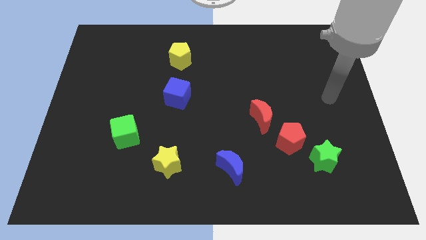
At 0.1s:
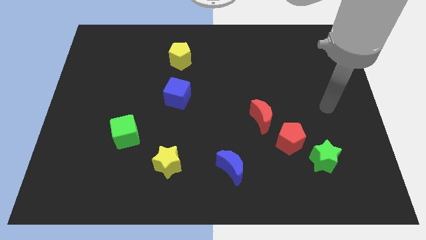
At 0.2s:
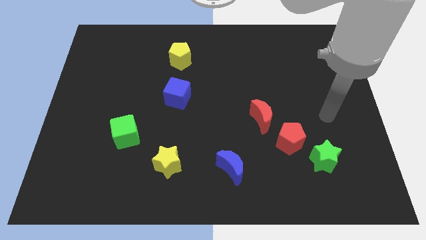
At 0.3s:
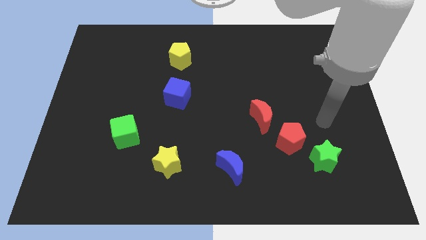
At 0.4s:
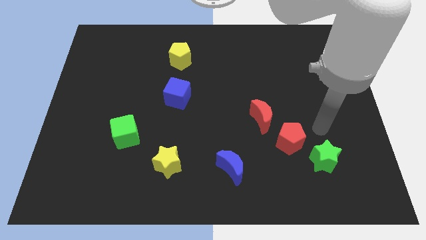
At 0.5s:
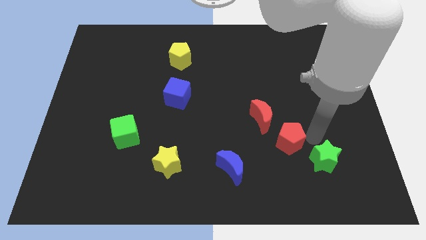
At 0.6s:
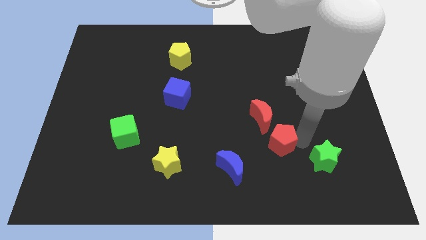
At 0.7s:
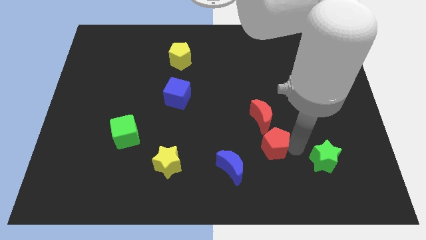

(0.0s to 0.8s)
separate the green star from the red pentagon

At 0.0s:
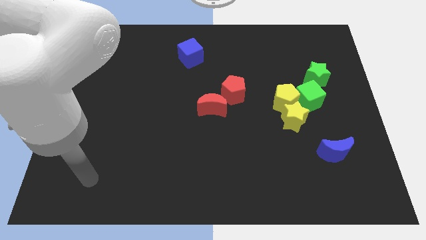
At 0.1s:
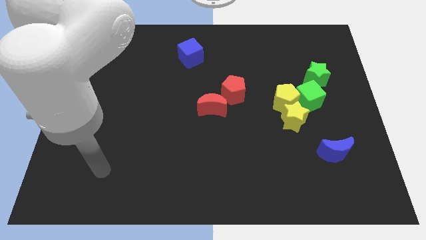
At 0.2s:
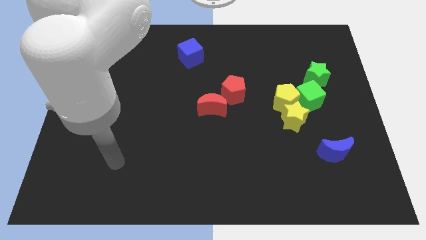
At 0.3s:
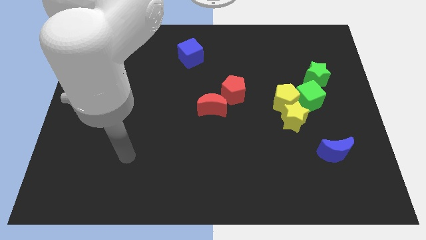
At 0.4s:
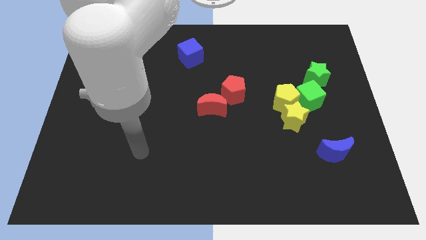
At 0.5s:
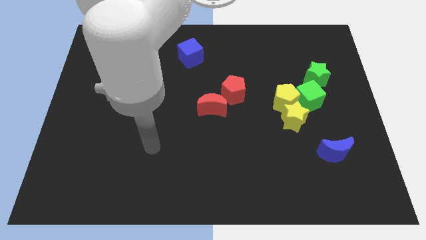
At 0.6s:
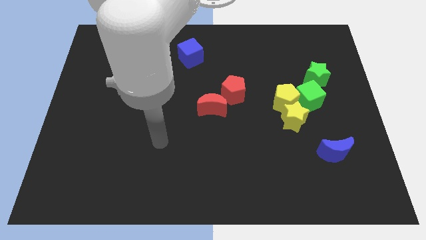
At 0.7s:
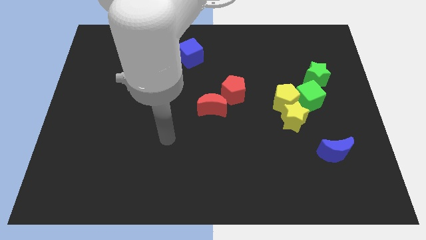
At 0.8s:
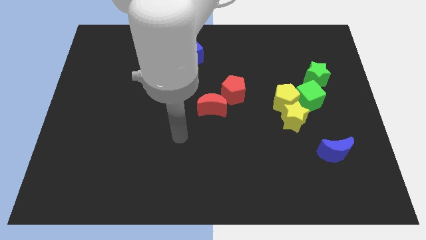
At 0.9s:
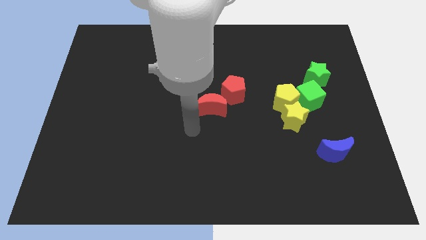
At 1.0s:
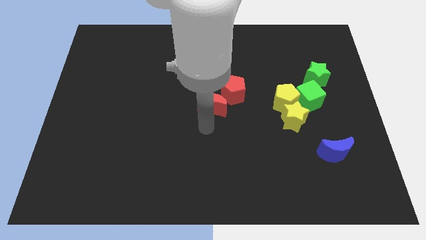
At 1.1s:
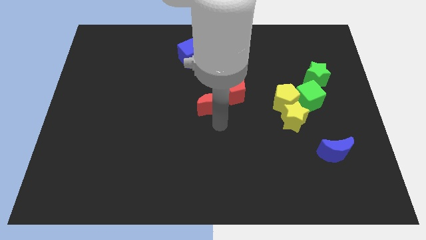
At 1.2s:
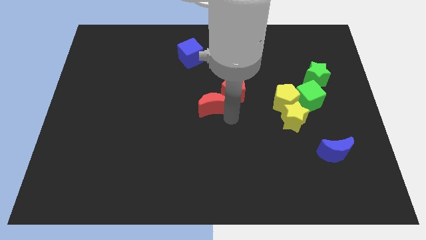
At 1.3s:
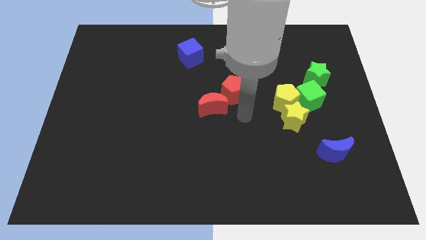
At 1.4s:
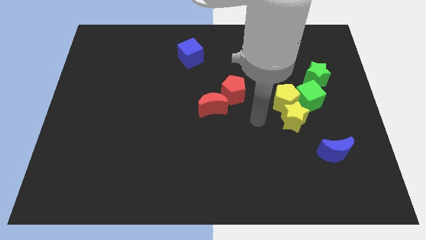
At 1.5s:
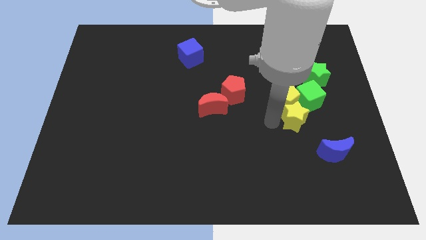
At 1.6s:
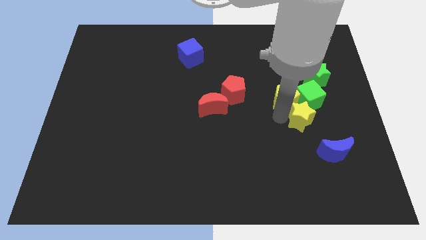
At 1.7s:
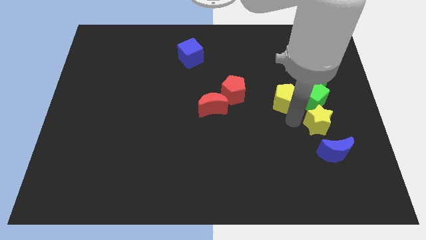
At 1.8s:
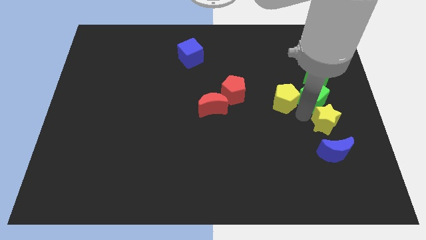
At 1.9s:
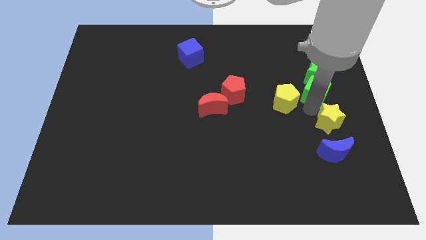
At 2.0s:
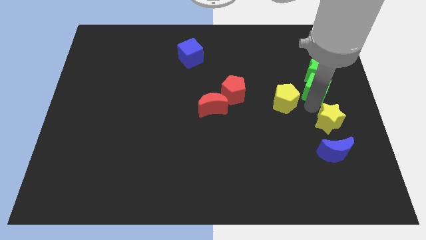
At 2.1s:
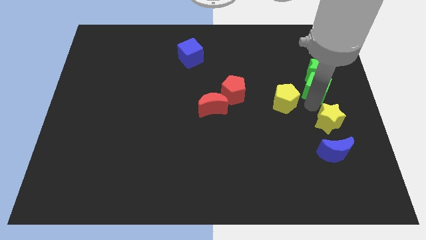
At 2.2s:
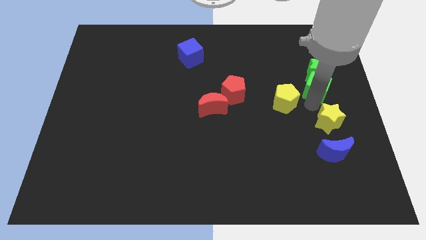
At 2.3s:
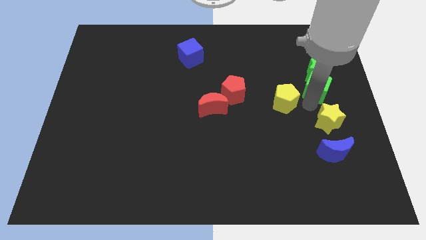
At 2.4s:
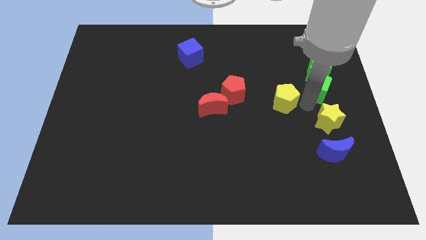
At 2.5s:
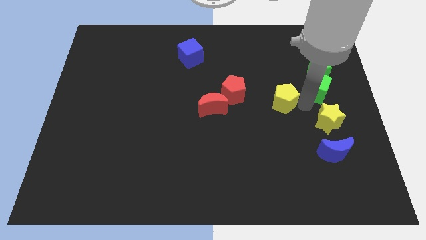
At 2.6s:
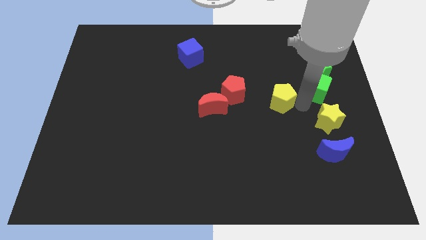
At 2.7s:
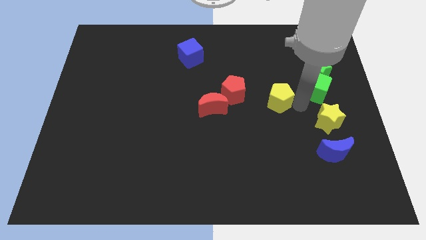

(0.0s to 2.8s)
move the yellow pentagon away from the yellow star and green cube

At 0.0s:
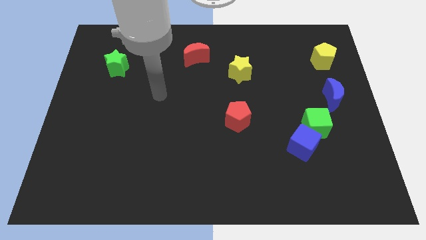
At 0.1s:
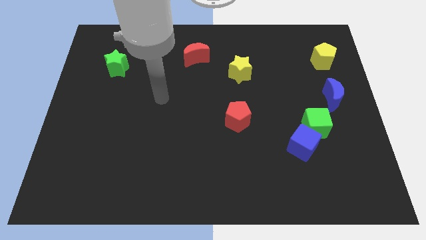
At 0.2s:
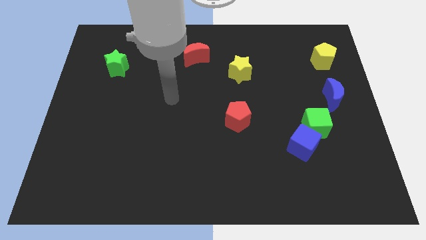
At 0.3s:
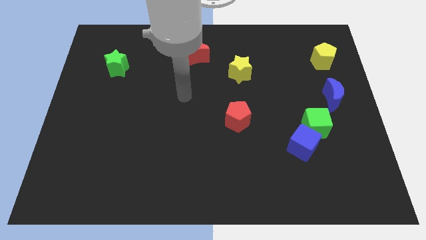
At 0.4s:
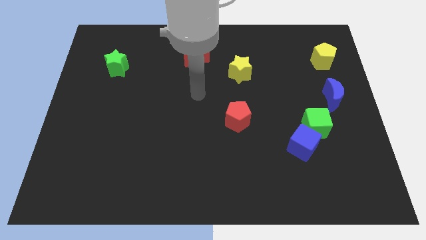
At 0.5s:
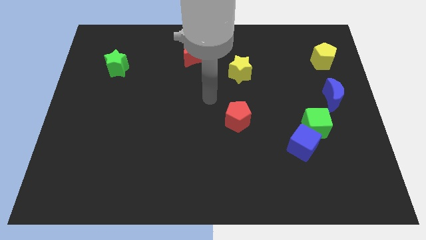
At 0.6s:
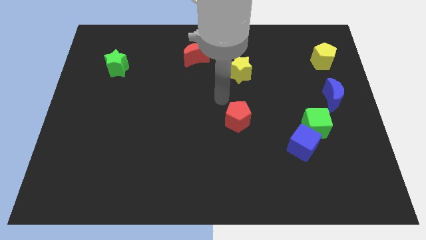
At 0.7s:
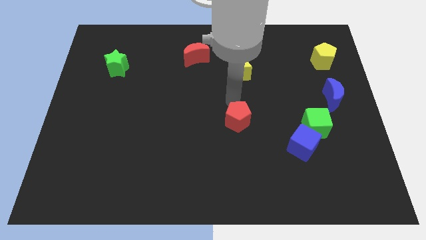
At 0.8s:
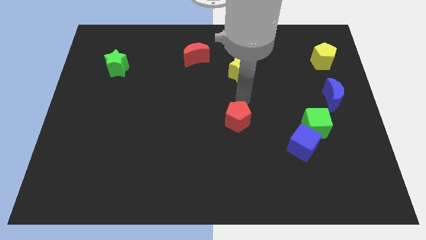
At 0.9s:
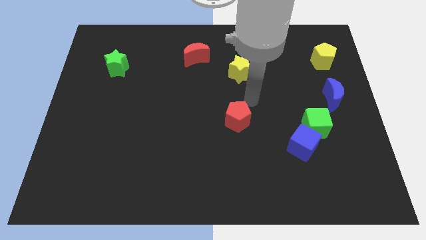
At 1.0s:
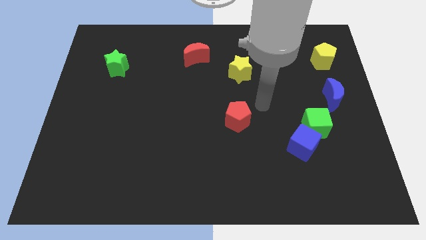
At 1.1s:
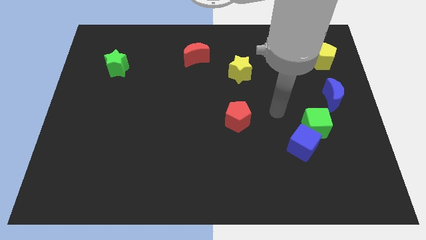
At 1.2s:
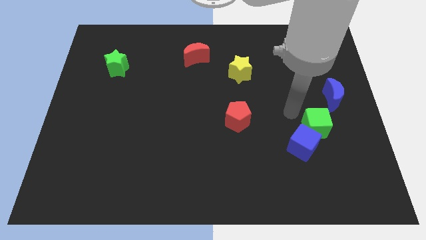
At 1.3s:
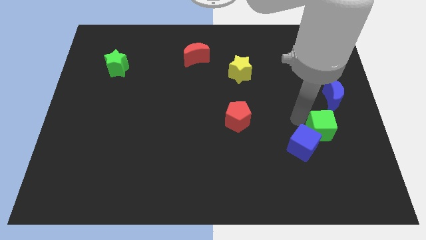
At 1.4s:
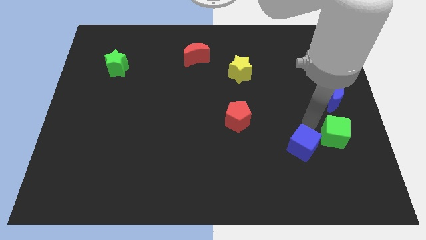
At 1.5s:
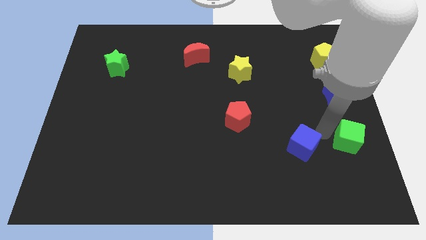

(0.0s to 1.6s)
move the blue cube away from the green cube

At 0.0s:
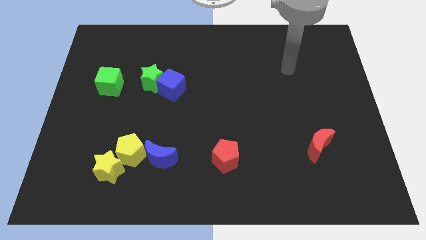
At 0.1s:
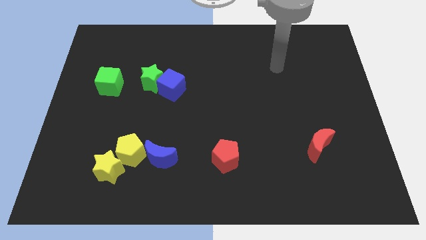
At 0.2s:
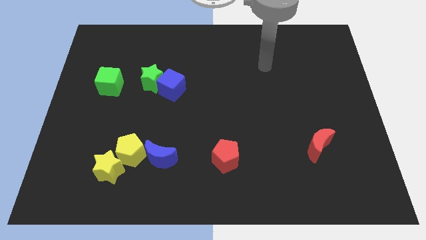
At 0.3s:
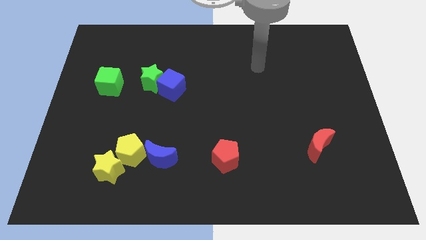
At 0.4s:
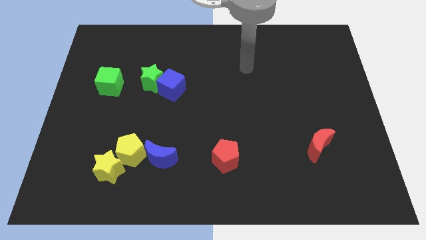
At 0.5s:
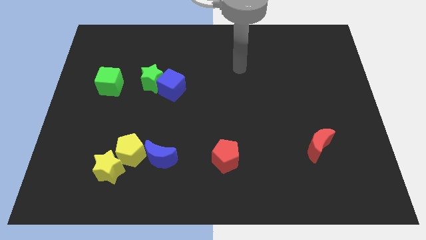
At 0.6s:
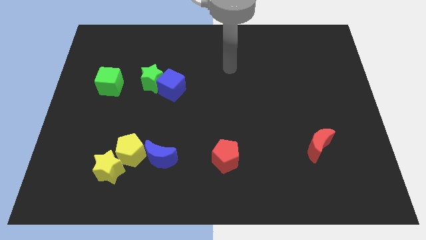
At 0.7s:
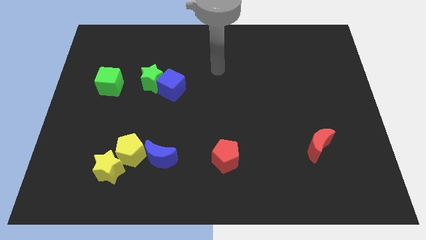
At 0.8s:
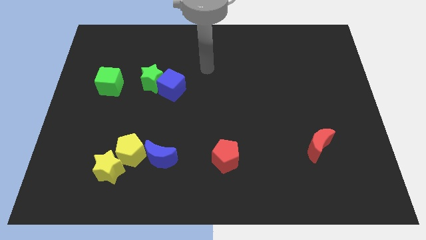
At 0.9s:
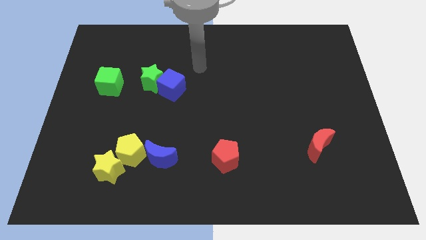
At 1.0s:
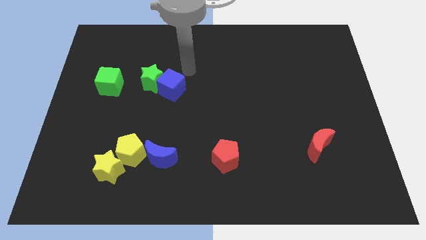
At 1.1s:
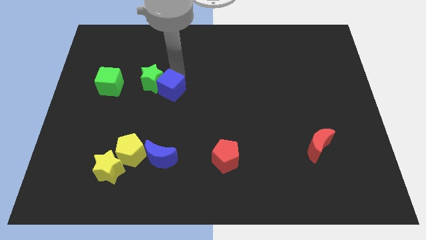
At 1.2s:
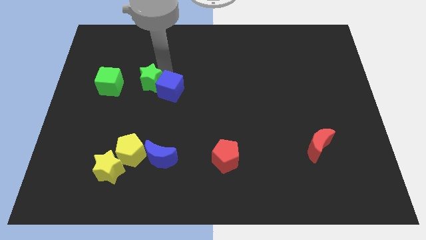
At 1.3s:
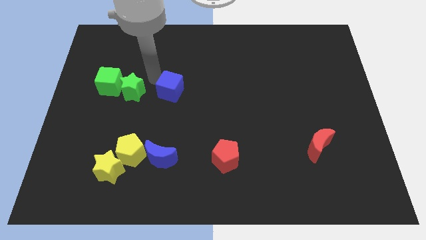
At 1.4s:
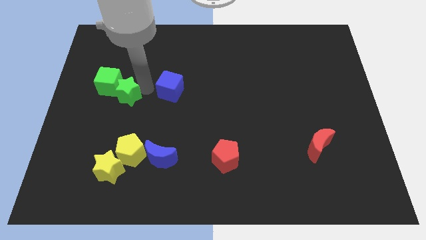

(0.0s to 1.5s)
move the blue cube away from the green star

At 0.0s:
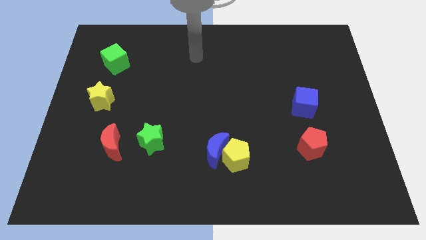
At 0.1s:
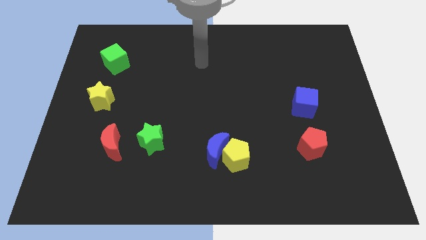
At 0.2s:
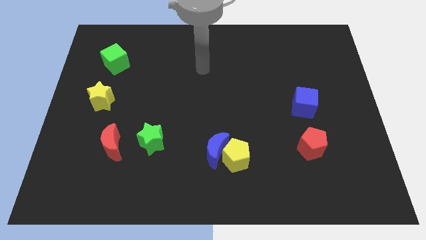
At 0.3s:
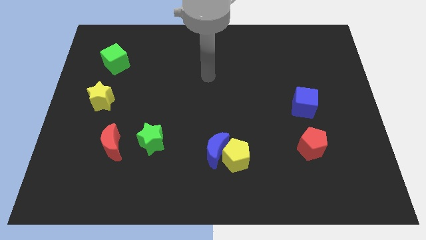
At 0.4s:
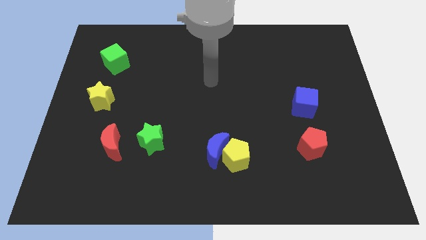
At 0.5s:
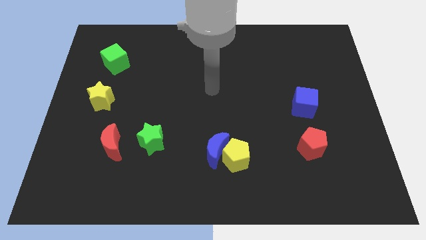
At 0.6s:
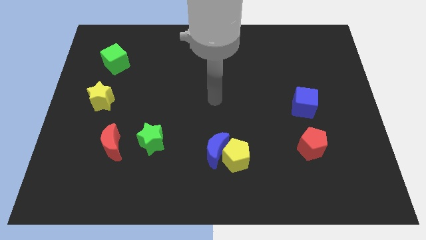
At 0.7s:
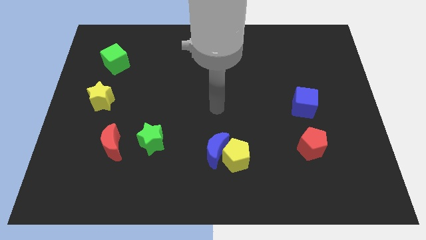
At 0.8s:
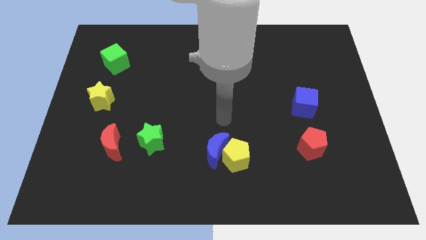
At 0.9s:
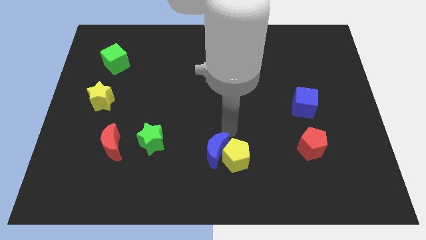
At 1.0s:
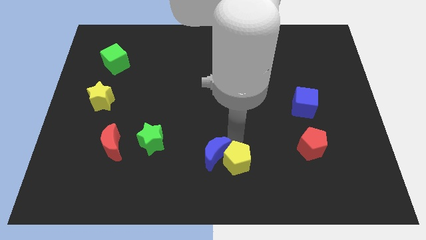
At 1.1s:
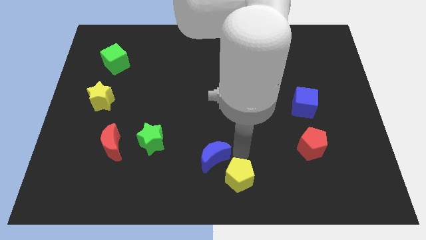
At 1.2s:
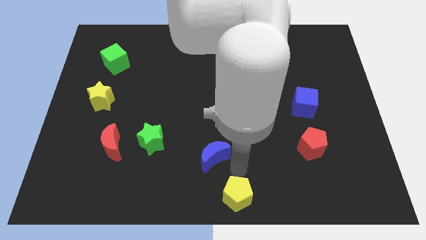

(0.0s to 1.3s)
pull the blue moon apart from the yellow pentagon

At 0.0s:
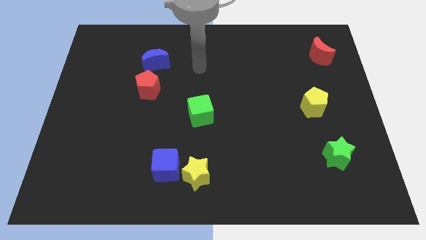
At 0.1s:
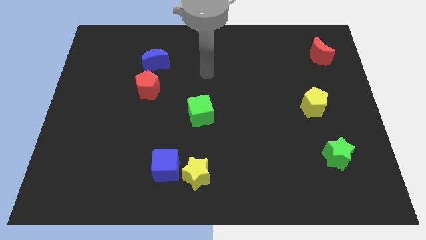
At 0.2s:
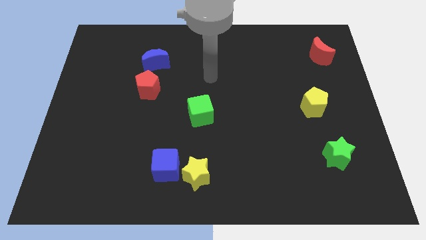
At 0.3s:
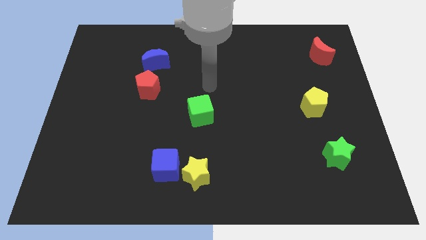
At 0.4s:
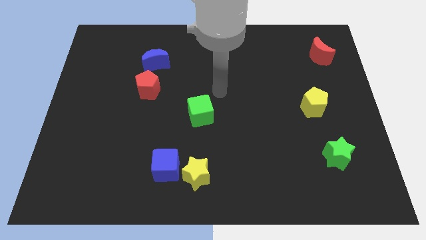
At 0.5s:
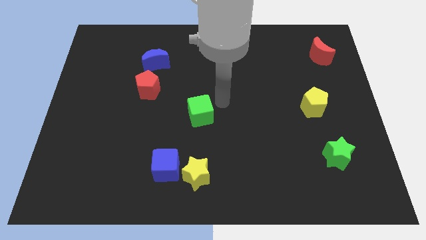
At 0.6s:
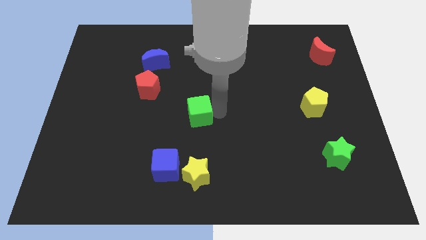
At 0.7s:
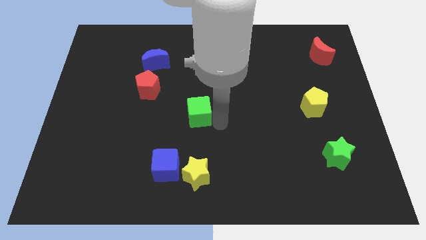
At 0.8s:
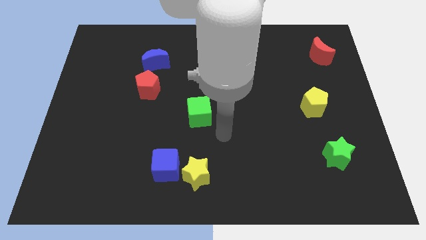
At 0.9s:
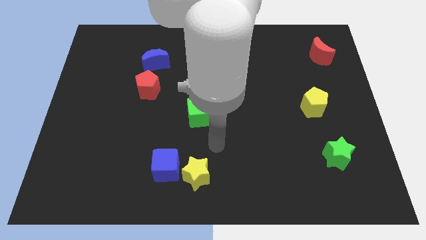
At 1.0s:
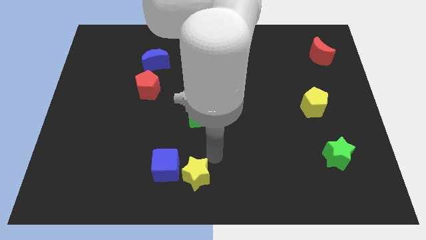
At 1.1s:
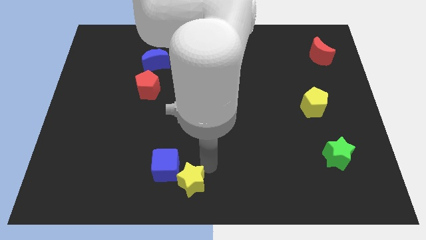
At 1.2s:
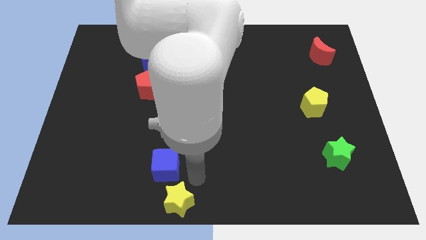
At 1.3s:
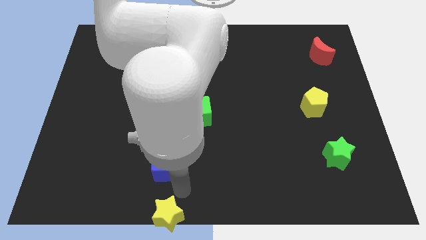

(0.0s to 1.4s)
move the blue cube away from the yellow star
